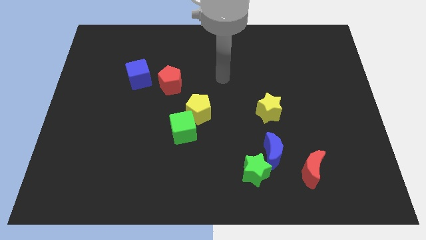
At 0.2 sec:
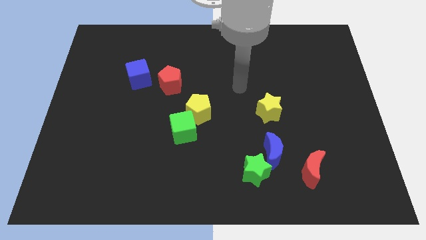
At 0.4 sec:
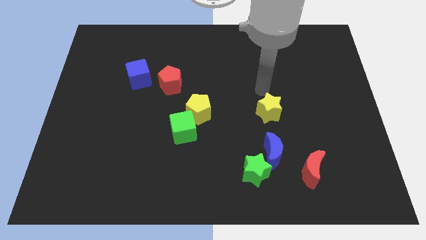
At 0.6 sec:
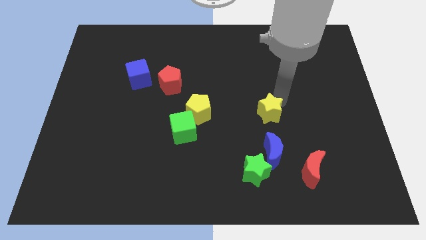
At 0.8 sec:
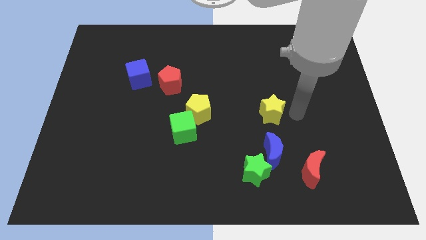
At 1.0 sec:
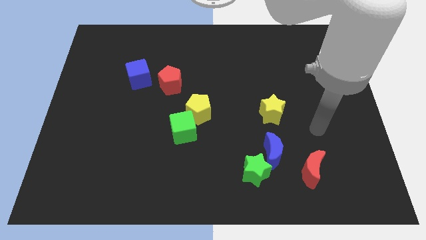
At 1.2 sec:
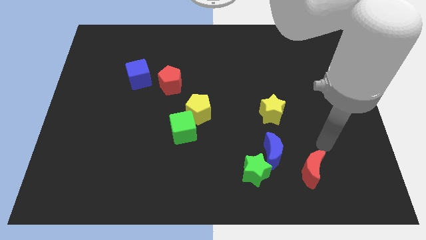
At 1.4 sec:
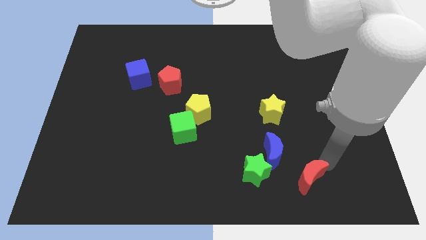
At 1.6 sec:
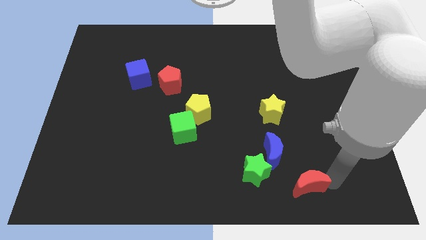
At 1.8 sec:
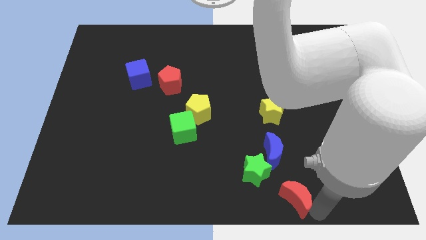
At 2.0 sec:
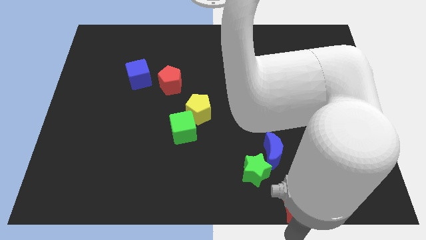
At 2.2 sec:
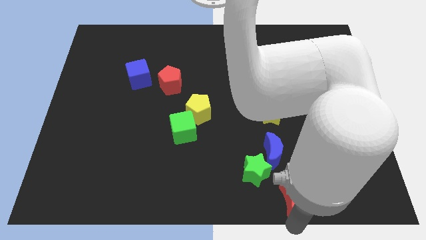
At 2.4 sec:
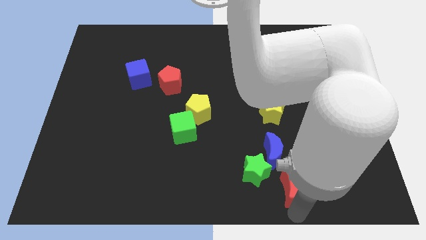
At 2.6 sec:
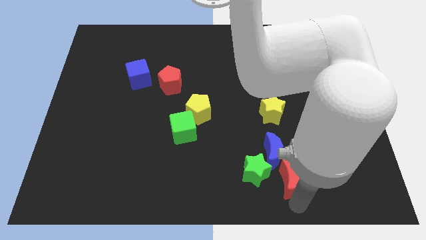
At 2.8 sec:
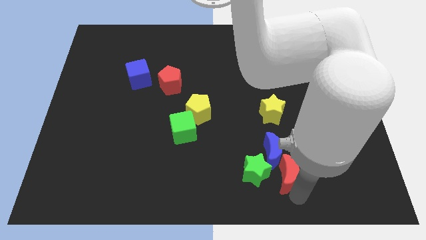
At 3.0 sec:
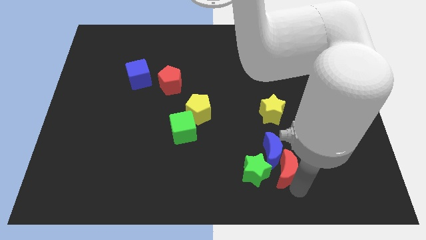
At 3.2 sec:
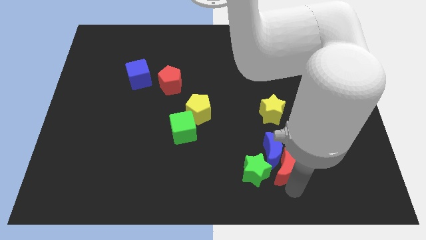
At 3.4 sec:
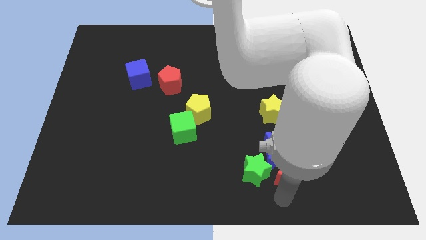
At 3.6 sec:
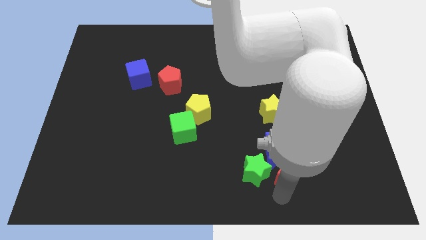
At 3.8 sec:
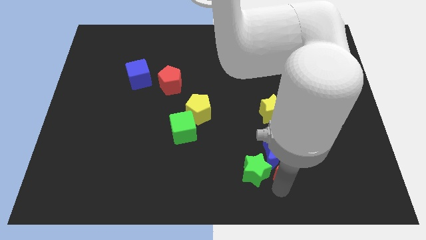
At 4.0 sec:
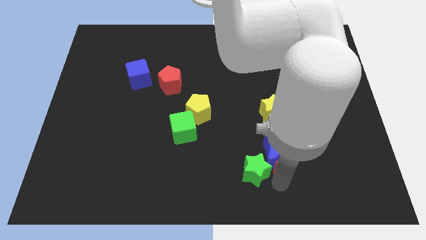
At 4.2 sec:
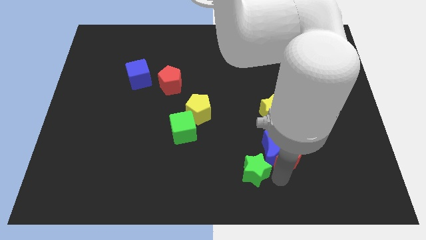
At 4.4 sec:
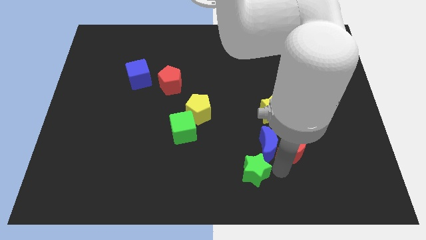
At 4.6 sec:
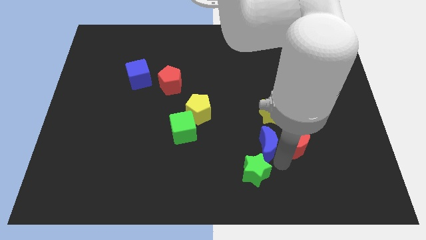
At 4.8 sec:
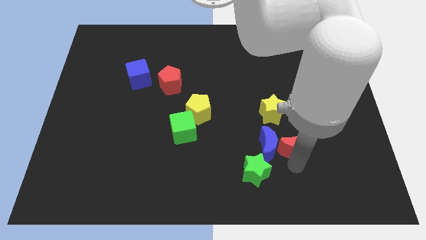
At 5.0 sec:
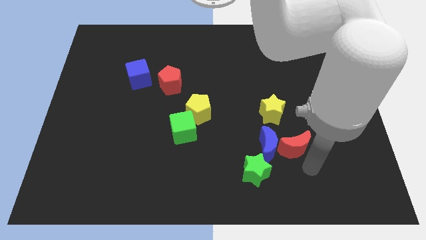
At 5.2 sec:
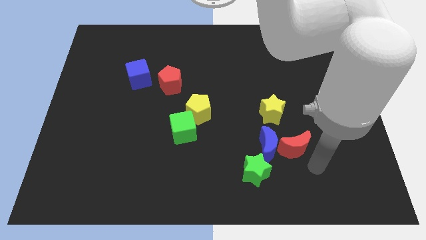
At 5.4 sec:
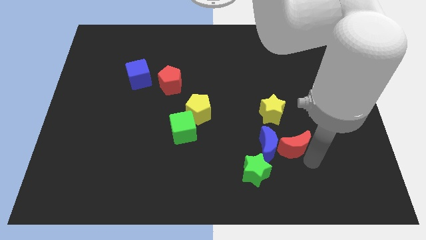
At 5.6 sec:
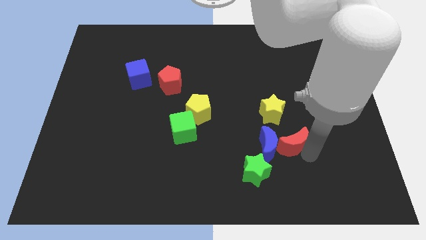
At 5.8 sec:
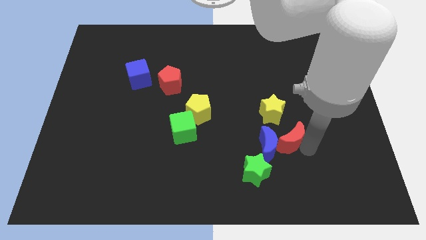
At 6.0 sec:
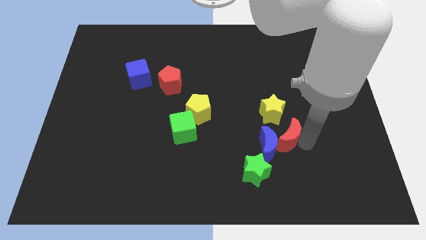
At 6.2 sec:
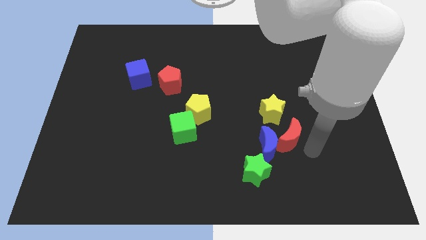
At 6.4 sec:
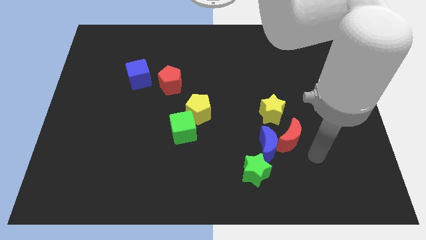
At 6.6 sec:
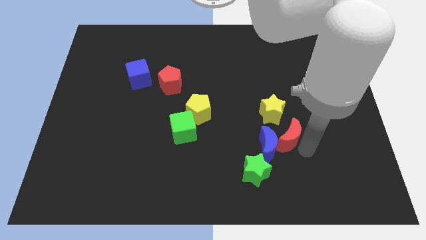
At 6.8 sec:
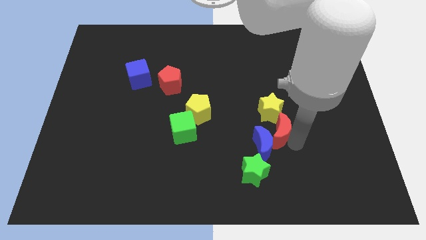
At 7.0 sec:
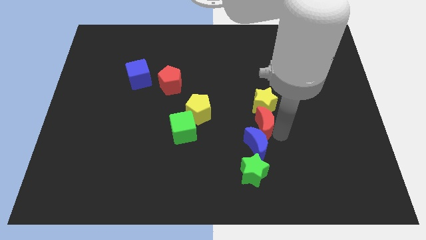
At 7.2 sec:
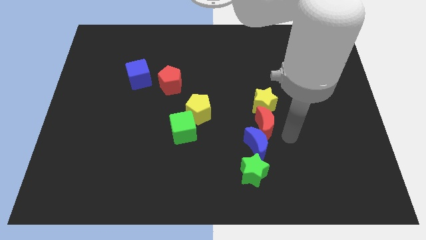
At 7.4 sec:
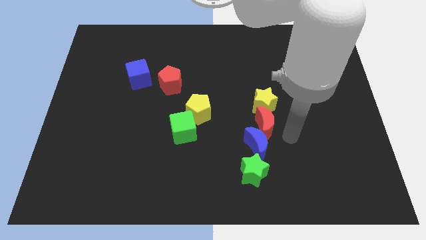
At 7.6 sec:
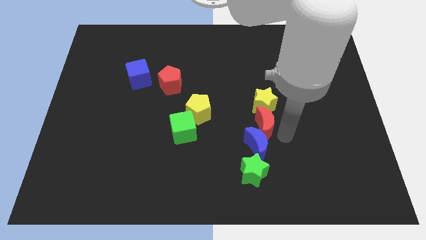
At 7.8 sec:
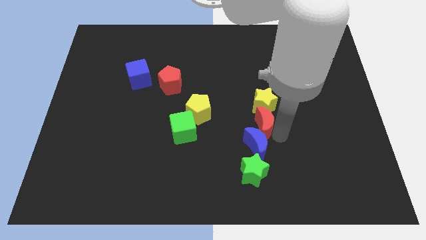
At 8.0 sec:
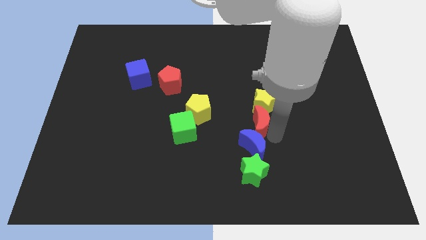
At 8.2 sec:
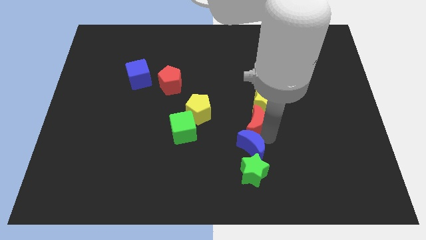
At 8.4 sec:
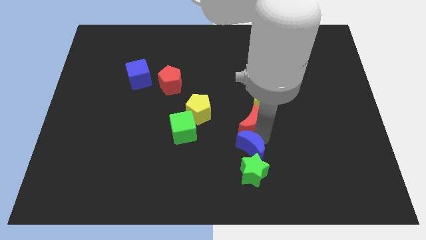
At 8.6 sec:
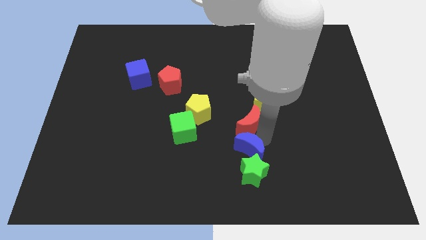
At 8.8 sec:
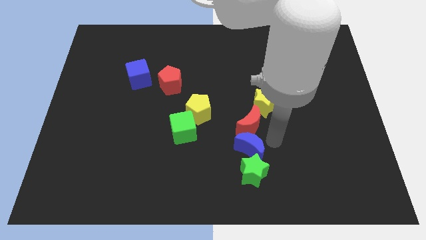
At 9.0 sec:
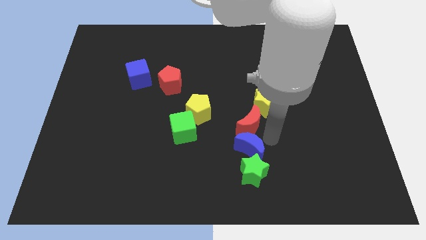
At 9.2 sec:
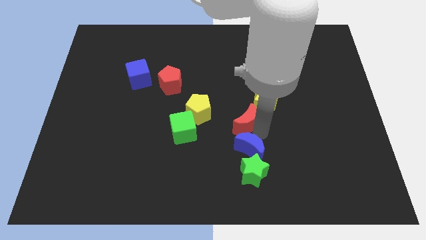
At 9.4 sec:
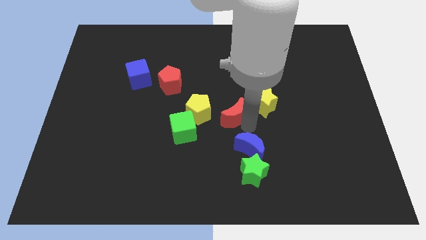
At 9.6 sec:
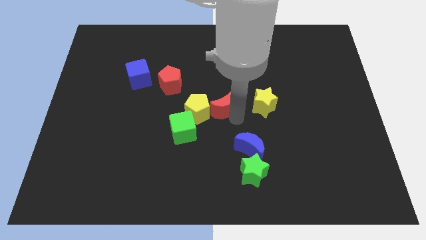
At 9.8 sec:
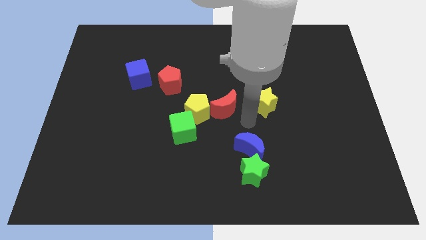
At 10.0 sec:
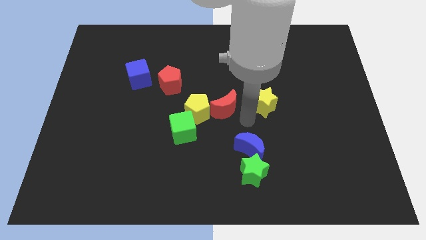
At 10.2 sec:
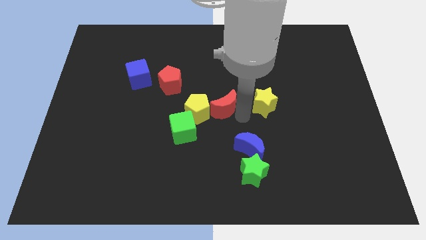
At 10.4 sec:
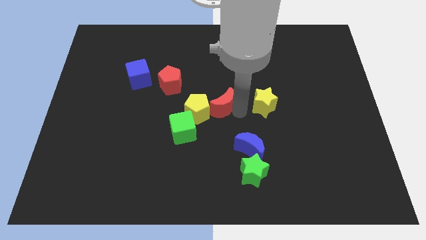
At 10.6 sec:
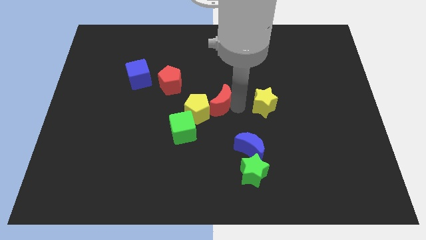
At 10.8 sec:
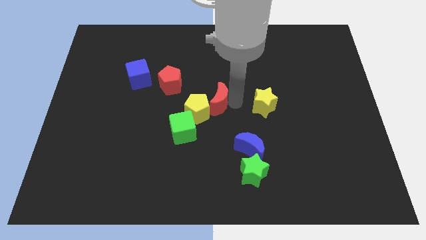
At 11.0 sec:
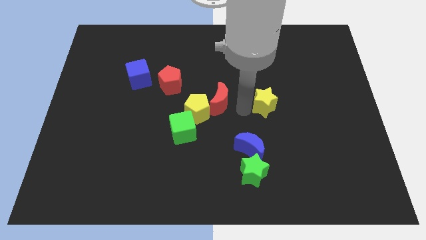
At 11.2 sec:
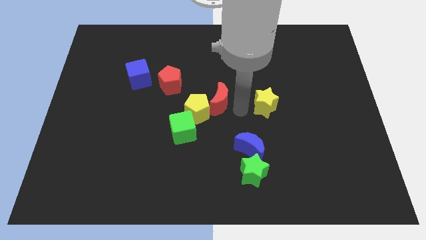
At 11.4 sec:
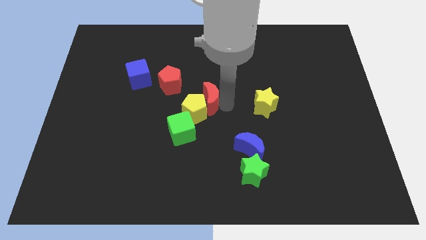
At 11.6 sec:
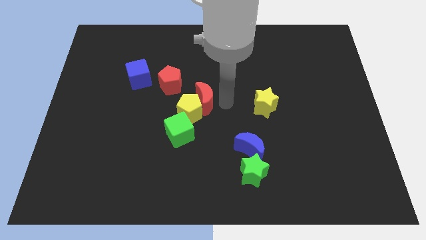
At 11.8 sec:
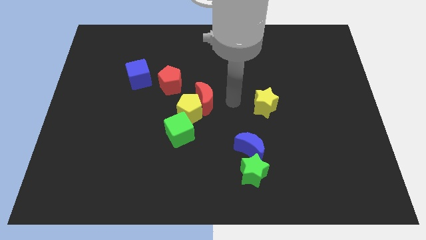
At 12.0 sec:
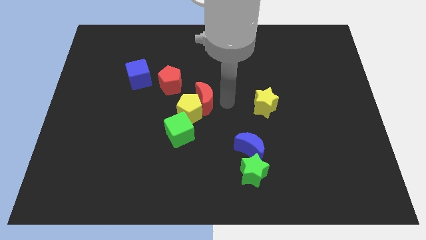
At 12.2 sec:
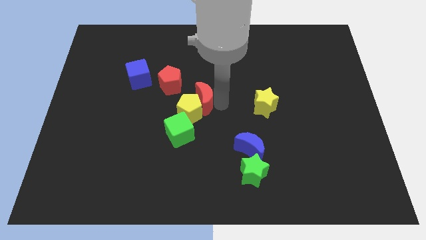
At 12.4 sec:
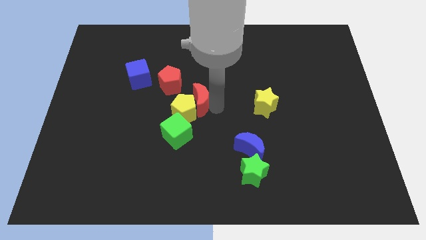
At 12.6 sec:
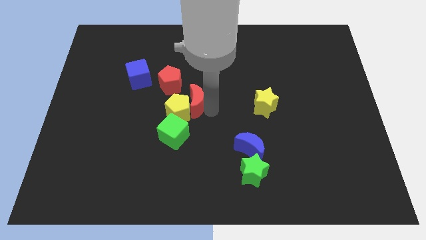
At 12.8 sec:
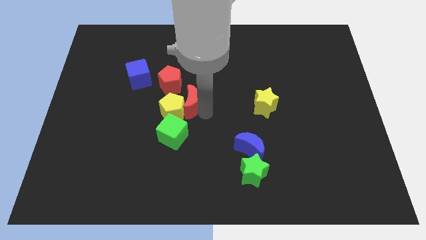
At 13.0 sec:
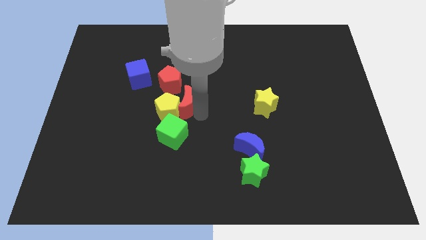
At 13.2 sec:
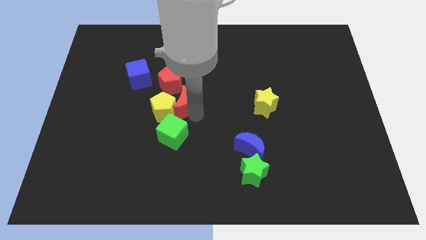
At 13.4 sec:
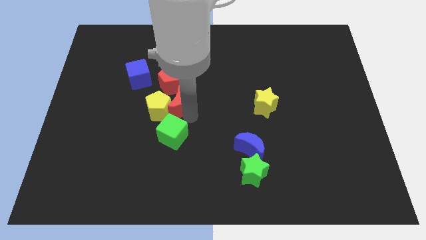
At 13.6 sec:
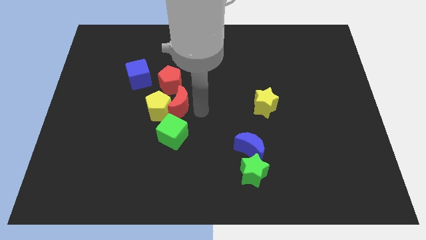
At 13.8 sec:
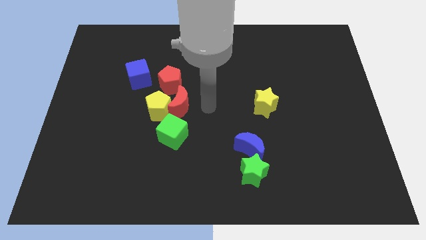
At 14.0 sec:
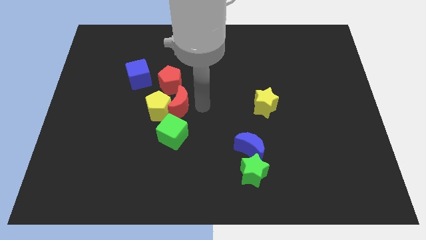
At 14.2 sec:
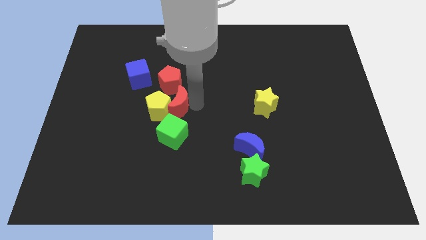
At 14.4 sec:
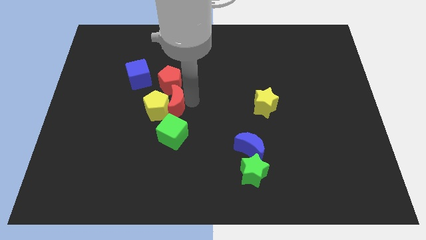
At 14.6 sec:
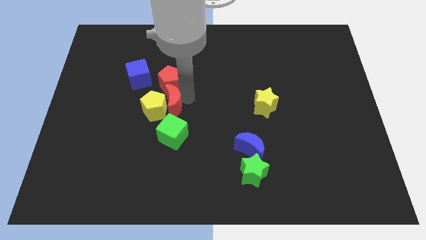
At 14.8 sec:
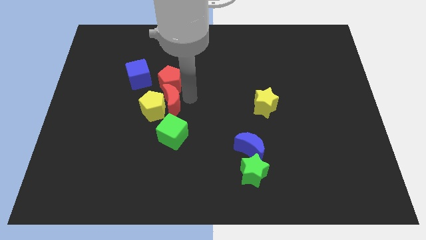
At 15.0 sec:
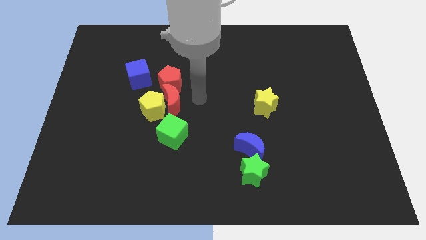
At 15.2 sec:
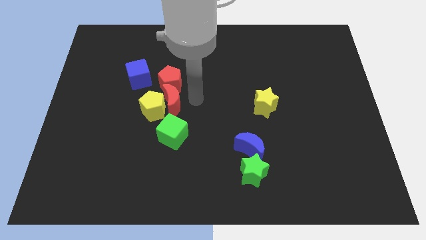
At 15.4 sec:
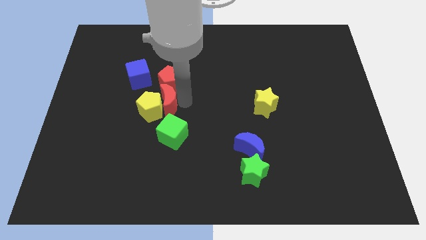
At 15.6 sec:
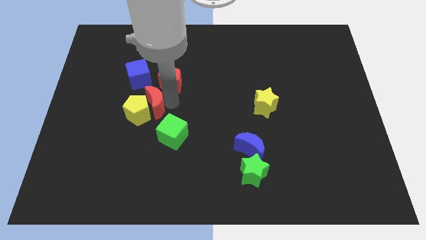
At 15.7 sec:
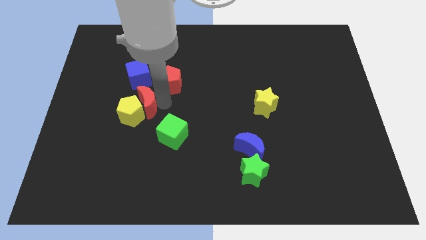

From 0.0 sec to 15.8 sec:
slide the red moon to the bottom side of the blue cube
